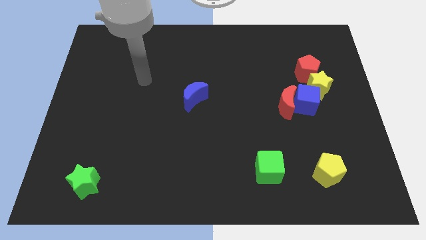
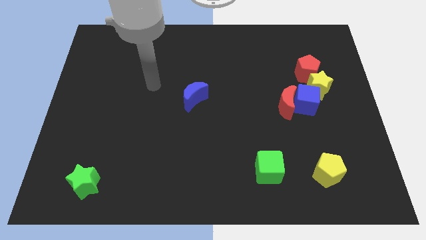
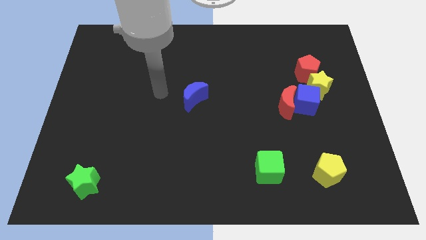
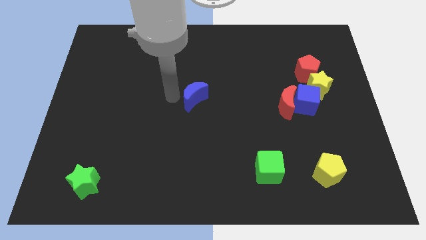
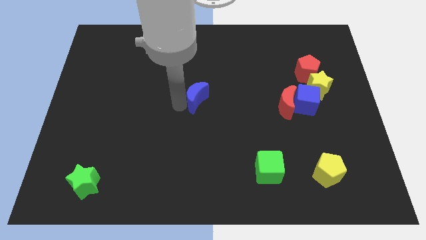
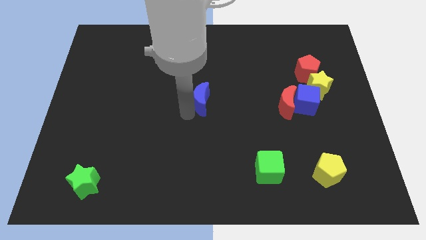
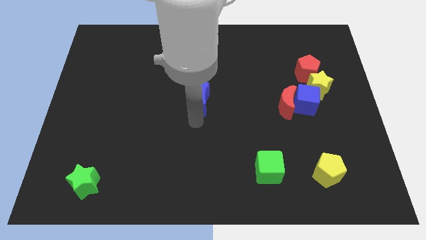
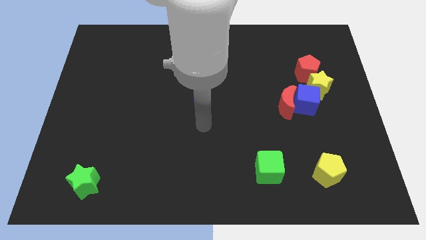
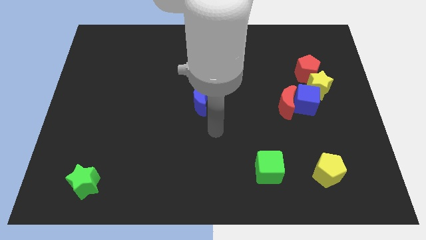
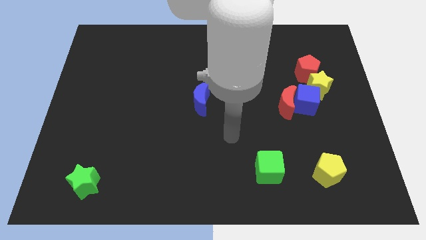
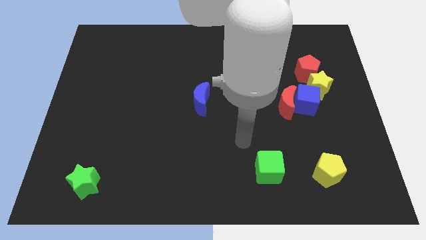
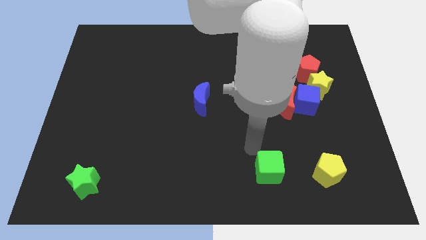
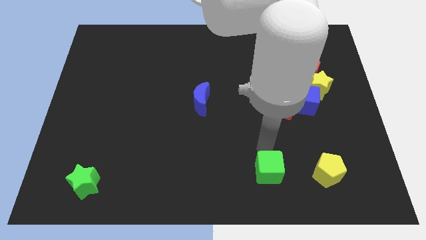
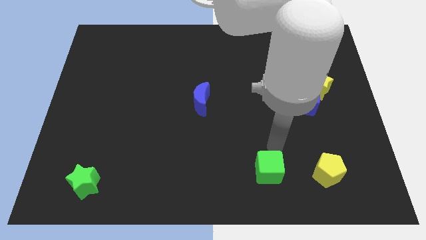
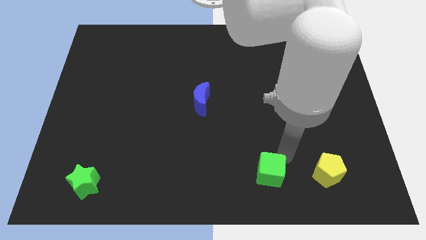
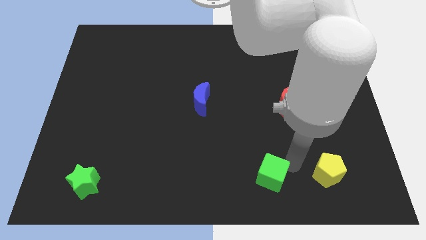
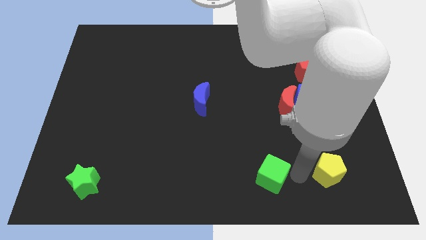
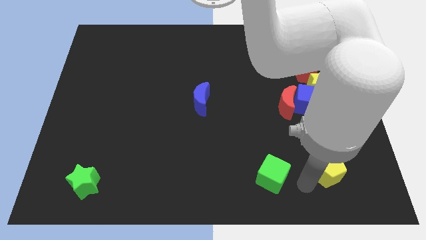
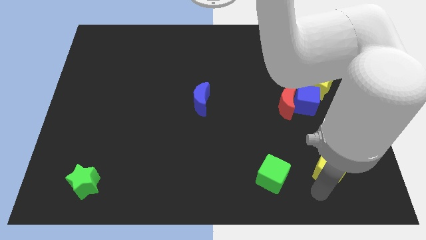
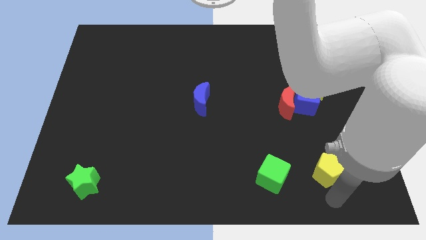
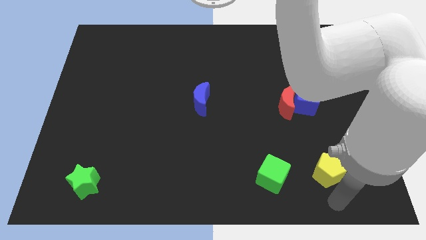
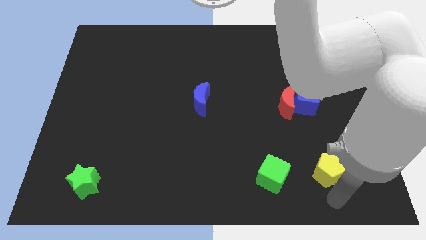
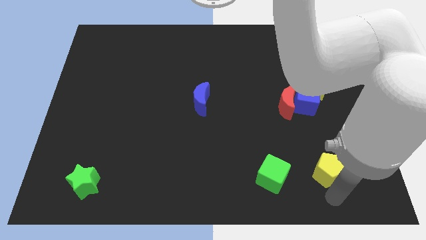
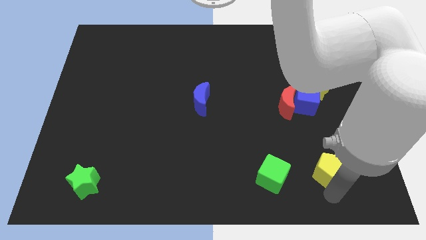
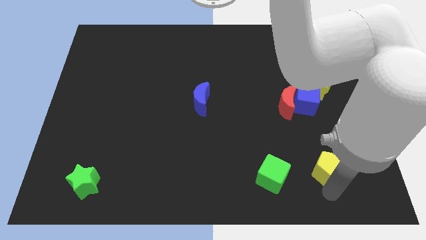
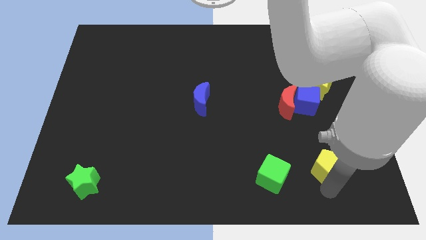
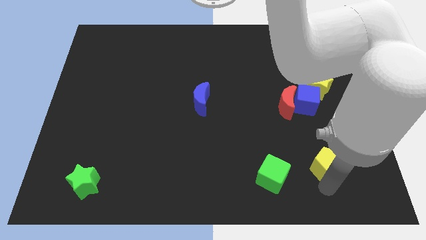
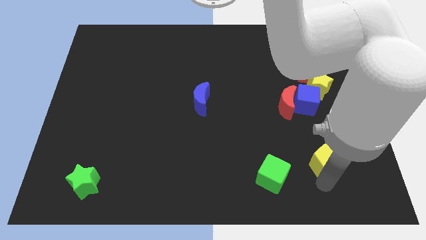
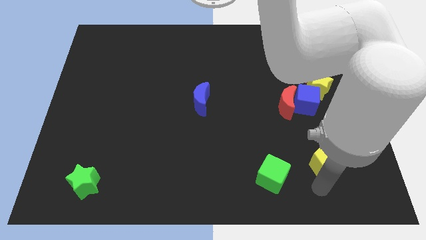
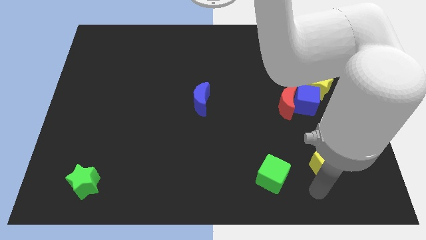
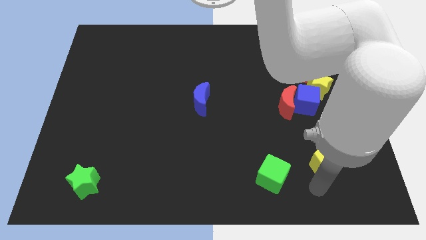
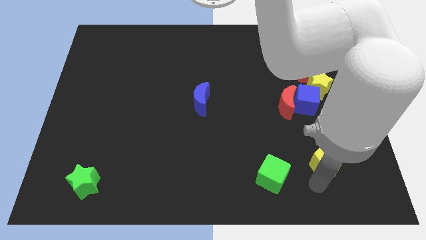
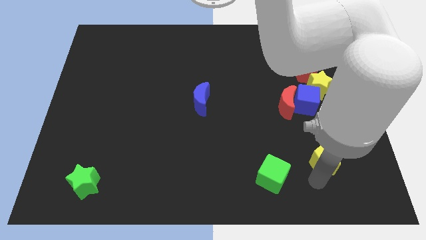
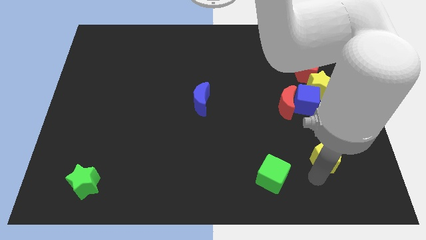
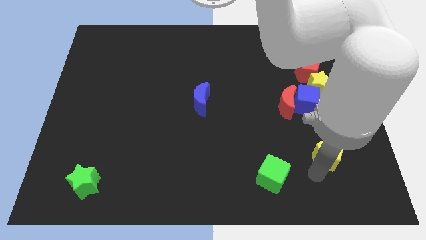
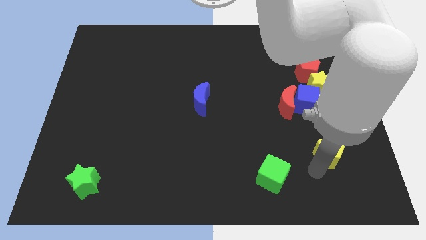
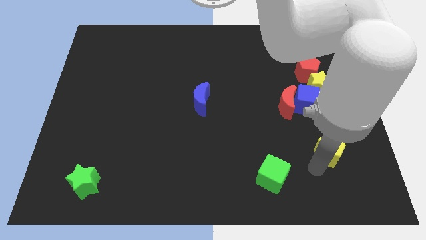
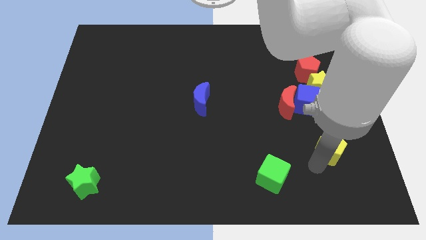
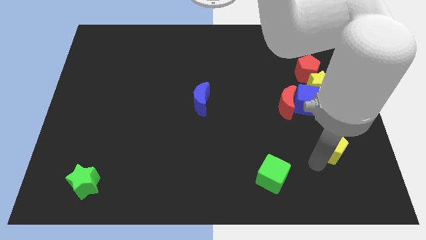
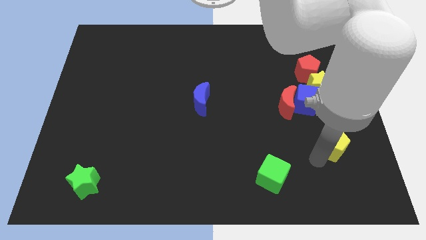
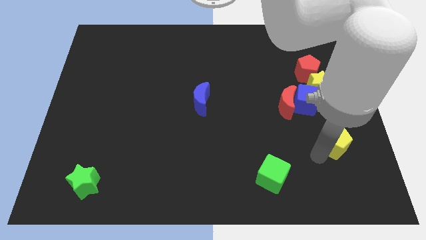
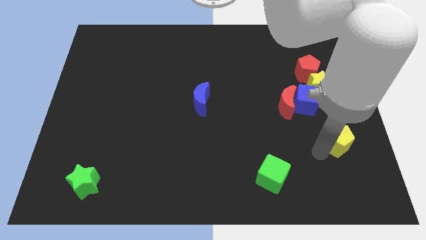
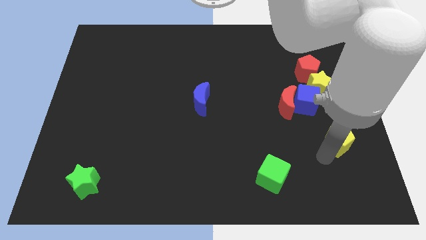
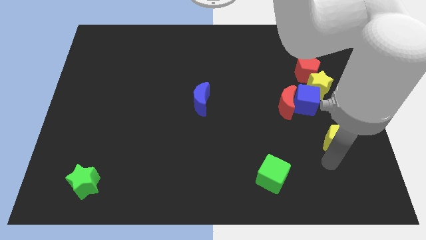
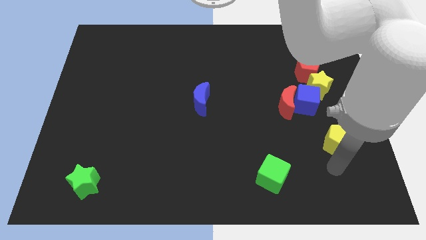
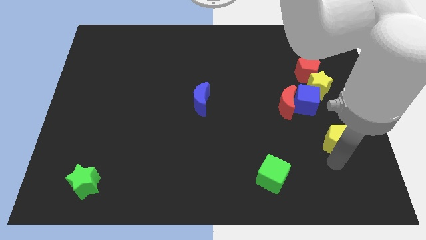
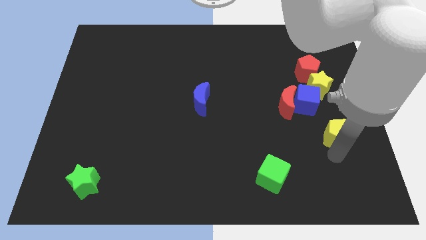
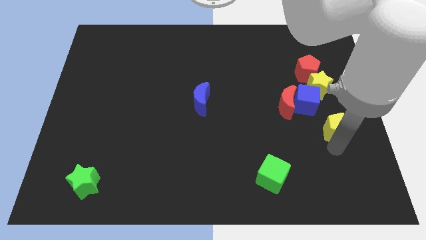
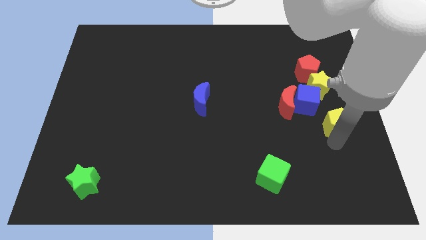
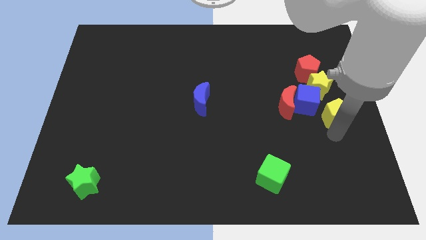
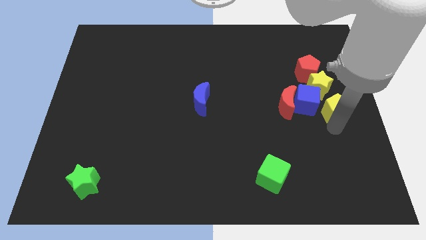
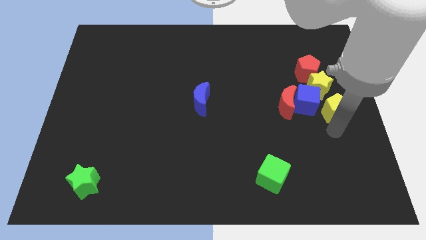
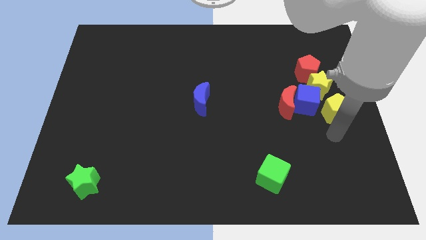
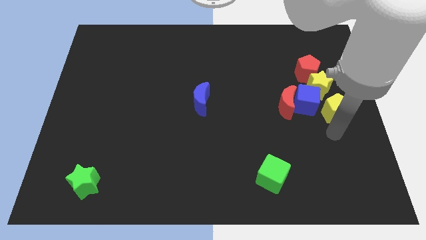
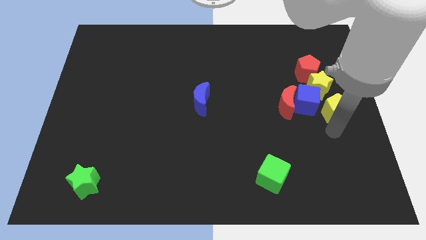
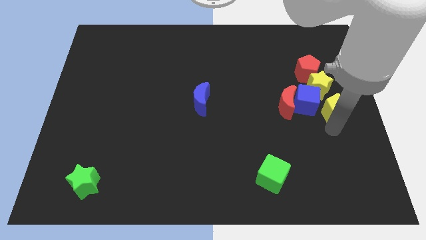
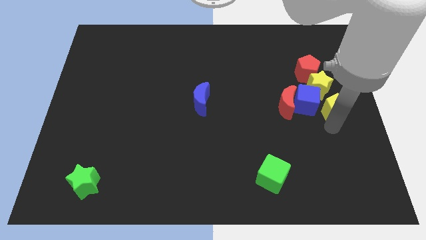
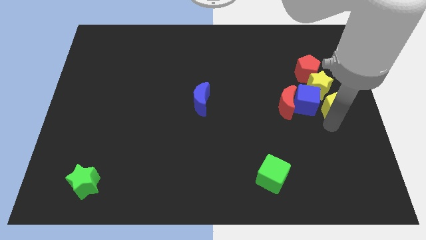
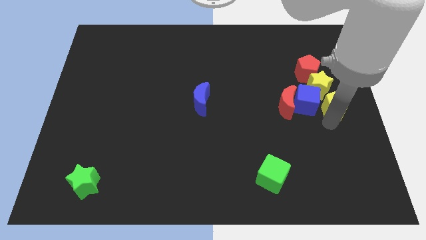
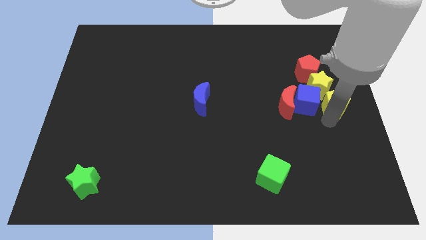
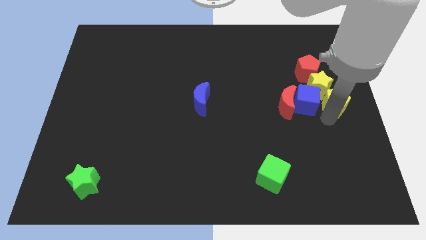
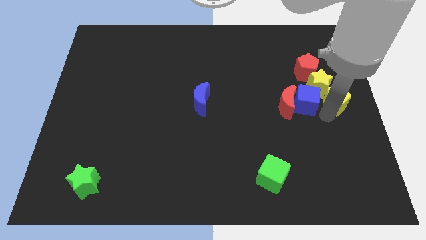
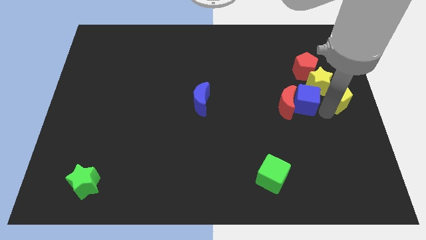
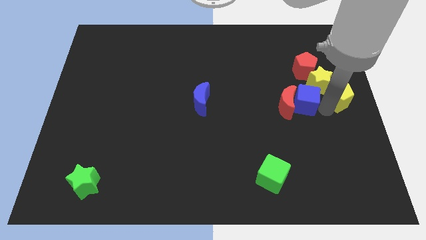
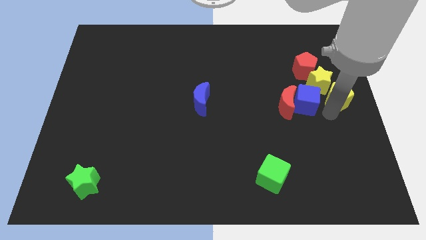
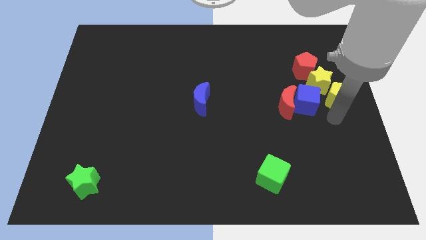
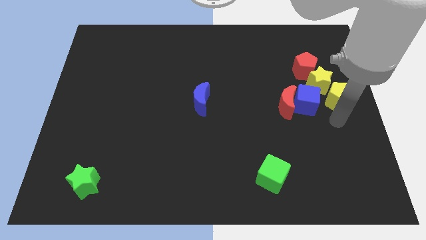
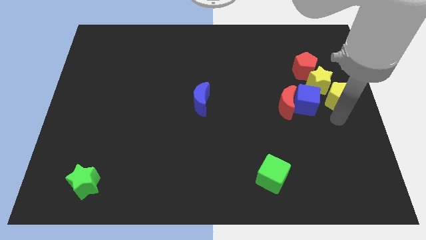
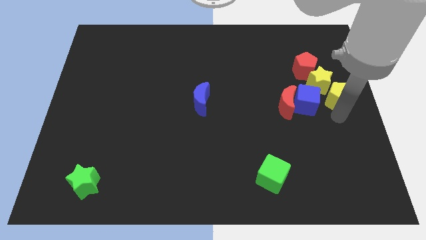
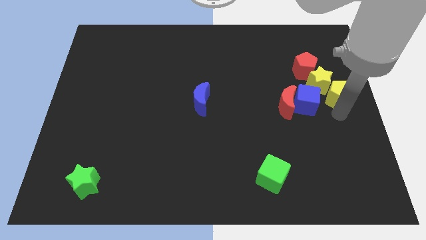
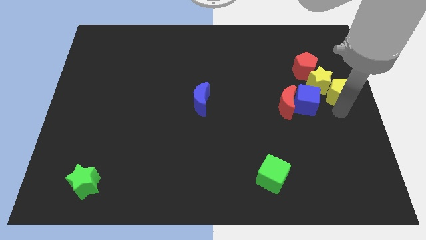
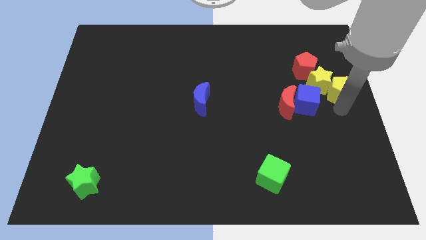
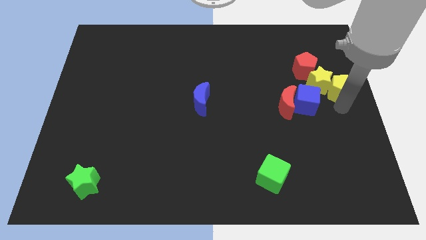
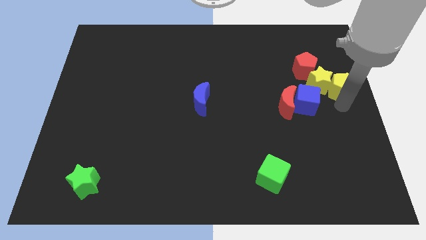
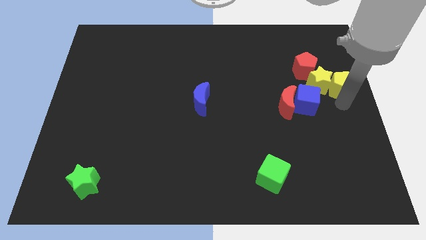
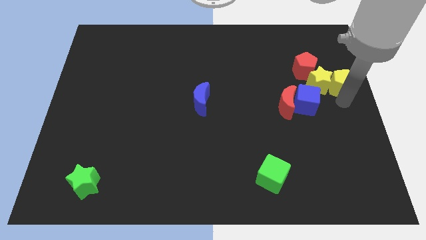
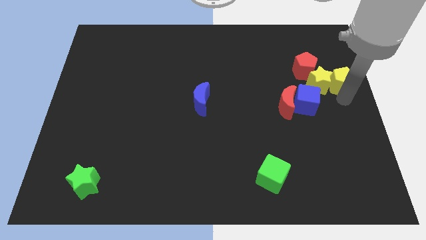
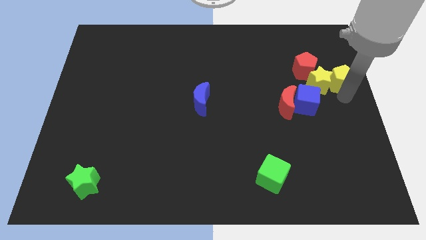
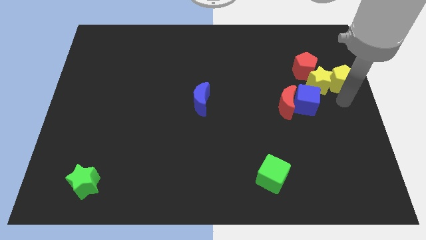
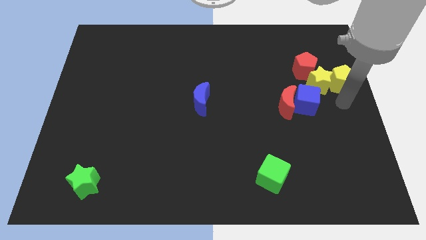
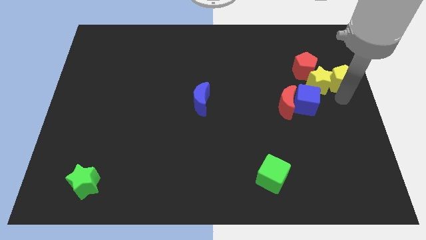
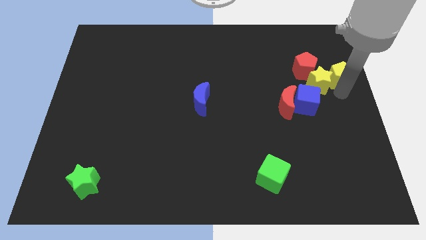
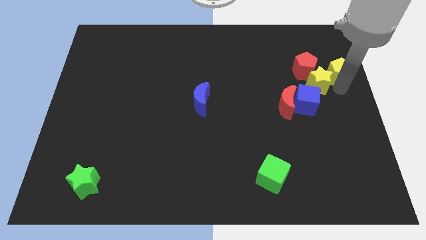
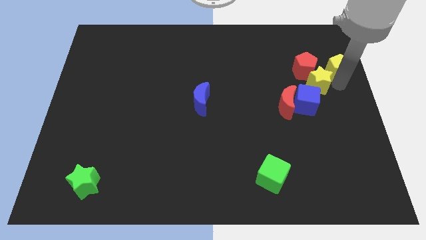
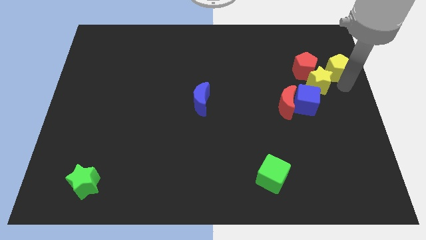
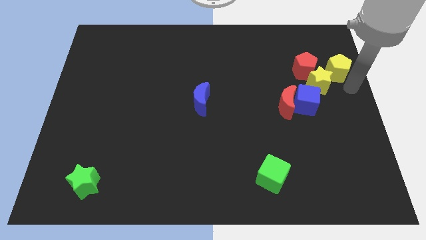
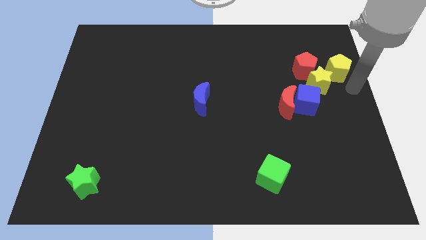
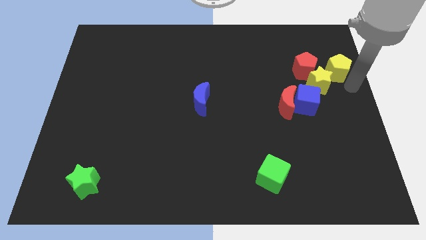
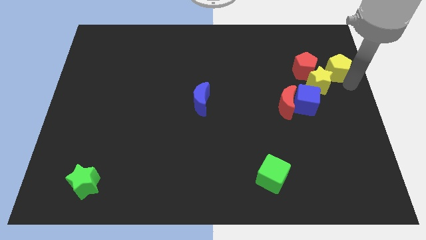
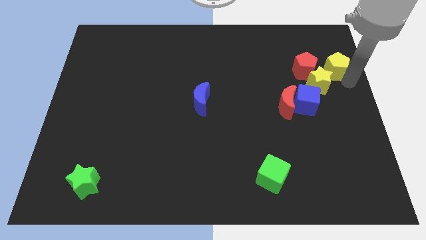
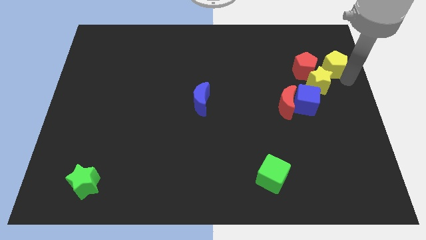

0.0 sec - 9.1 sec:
move the yellow pentagon to the top right side of the red pentagon
